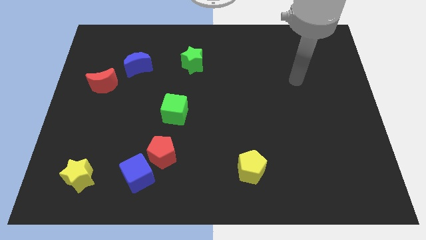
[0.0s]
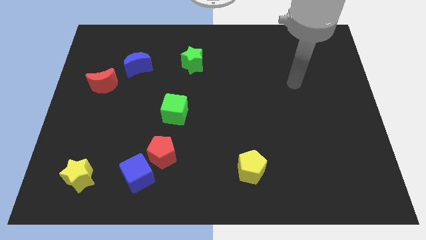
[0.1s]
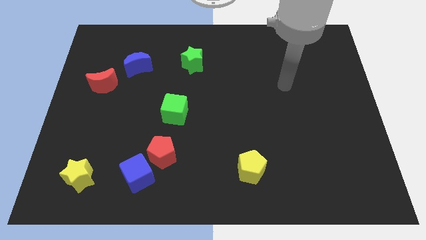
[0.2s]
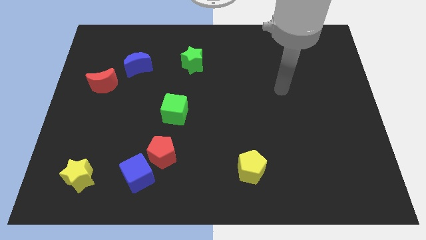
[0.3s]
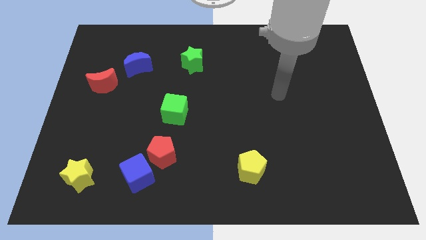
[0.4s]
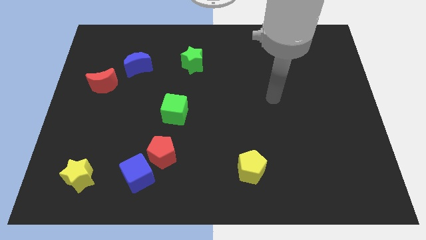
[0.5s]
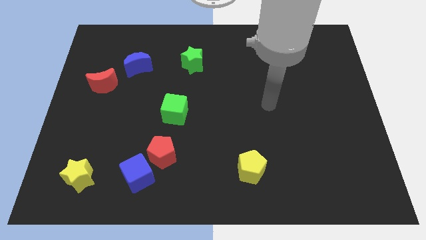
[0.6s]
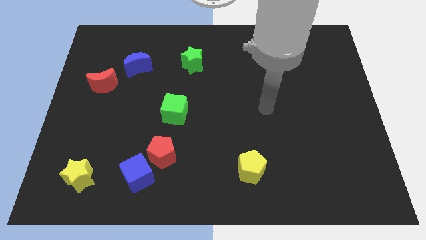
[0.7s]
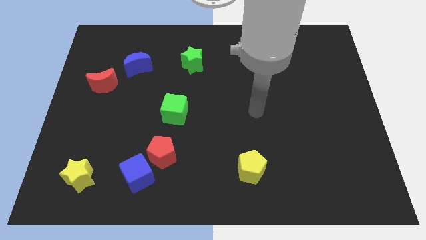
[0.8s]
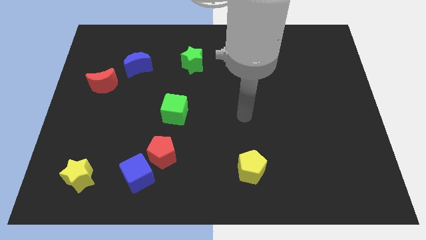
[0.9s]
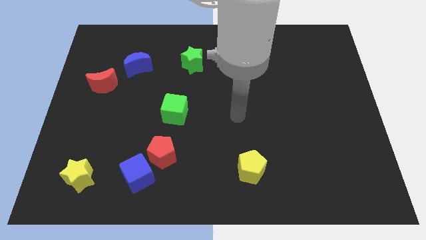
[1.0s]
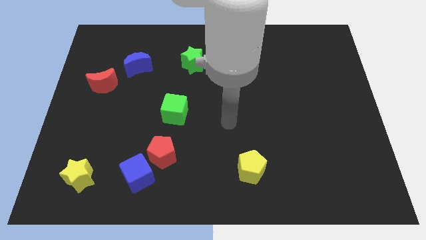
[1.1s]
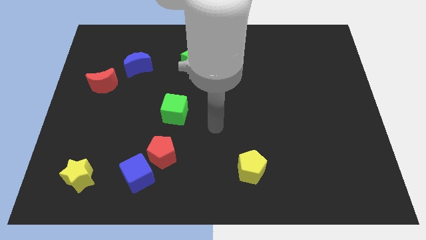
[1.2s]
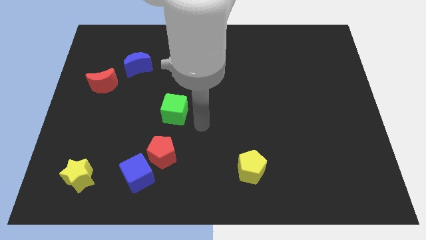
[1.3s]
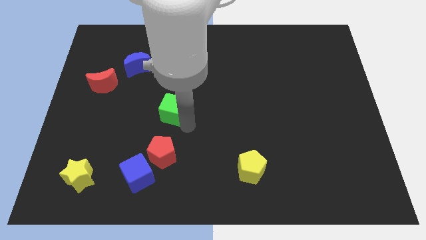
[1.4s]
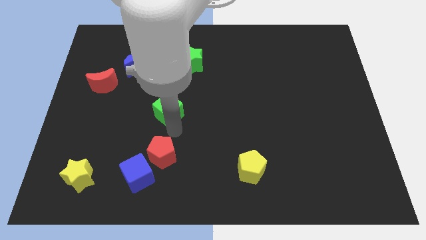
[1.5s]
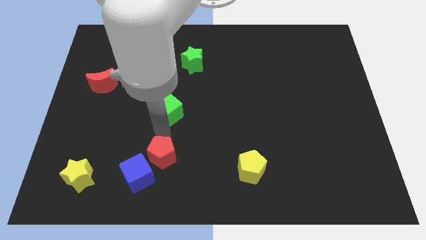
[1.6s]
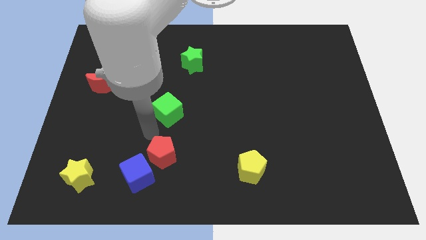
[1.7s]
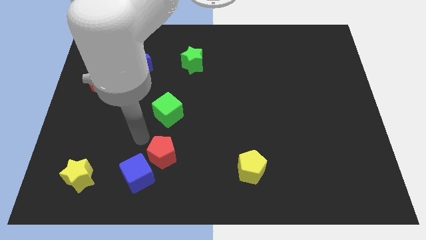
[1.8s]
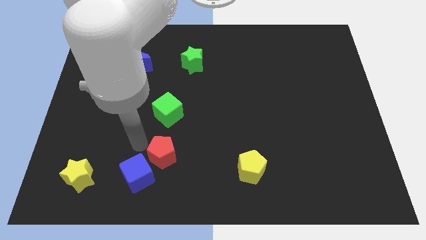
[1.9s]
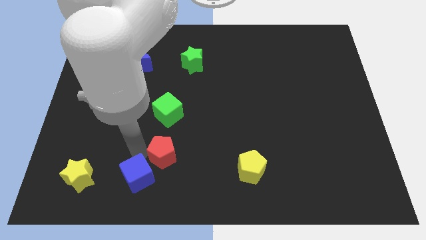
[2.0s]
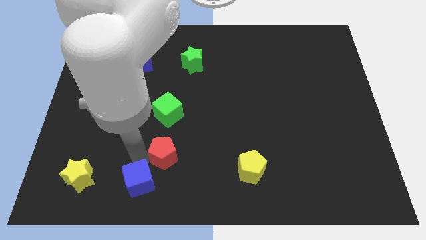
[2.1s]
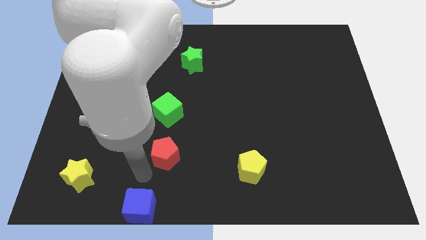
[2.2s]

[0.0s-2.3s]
pull the red pentagon apart from the blue cube

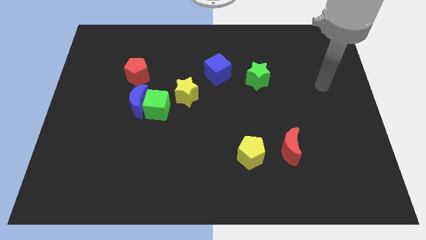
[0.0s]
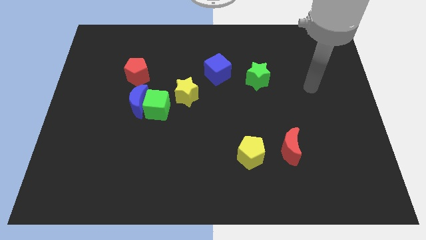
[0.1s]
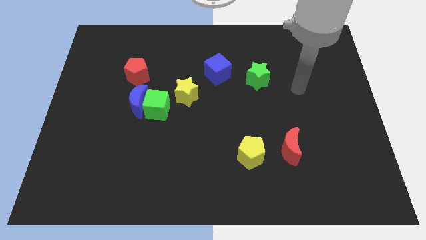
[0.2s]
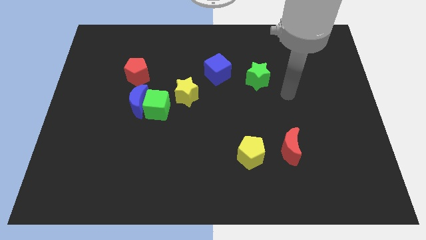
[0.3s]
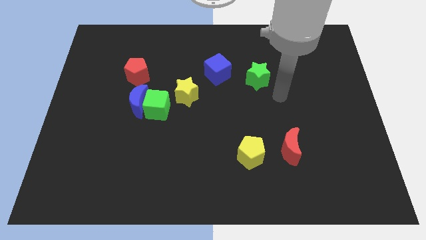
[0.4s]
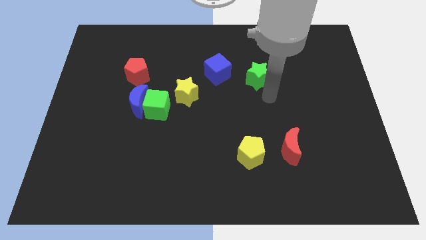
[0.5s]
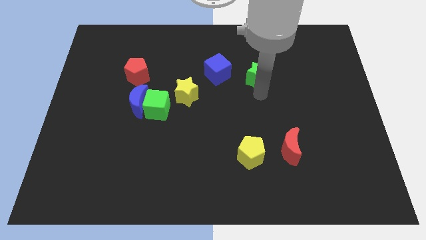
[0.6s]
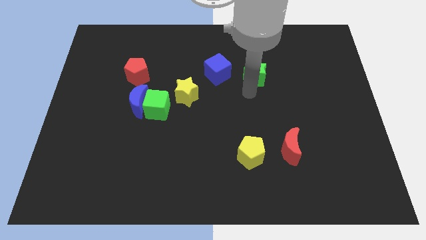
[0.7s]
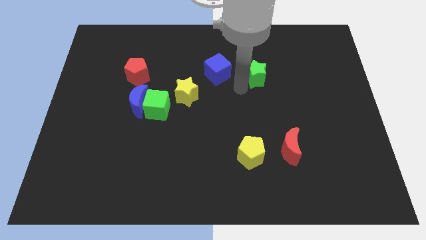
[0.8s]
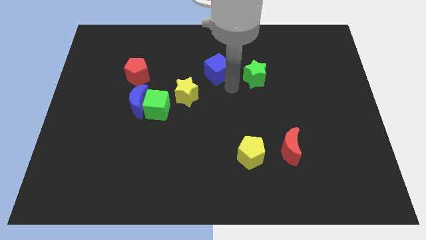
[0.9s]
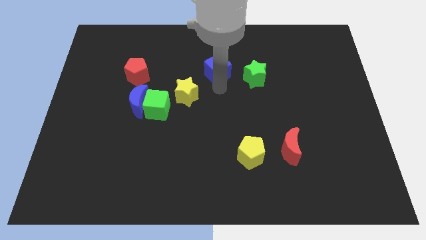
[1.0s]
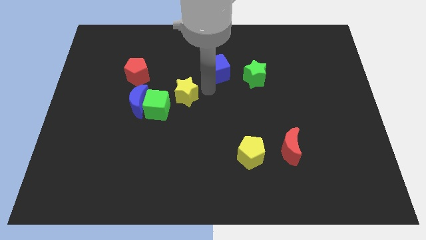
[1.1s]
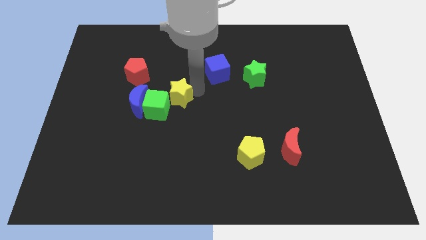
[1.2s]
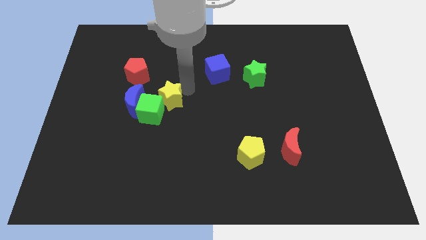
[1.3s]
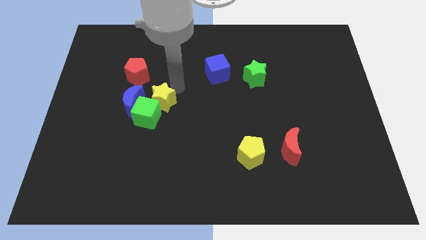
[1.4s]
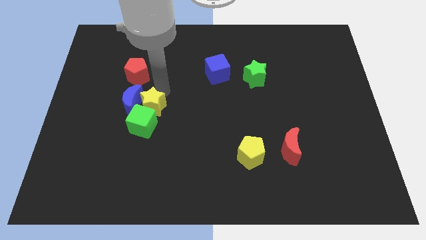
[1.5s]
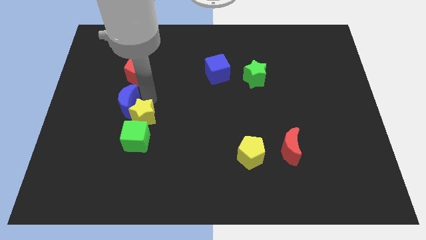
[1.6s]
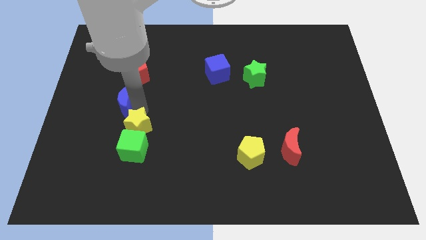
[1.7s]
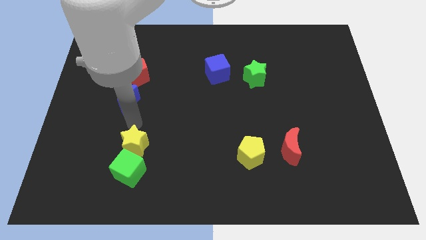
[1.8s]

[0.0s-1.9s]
move the green cube away from the blue moon and yellow star

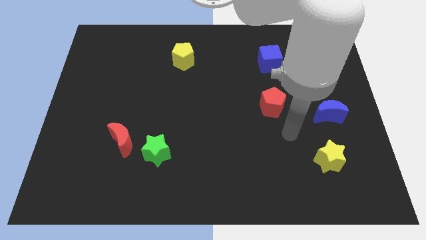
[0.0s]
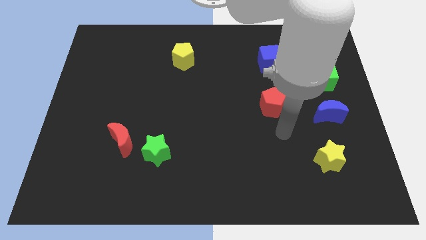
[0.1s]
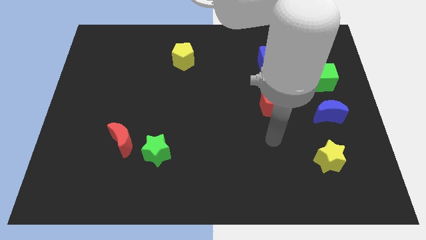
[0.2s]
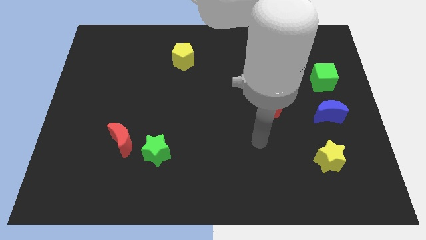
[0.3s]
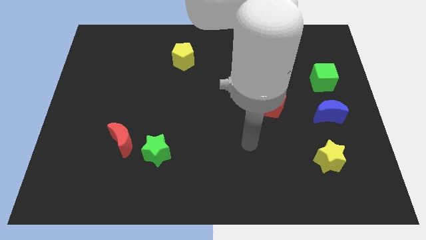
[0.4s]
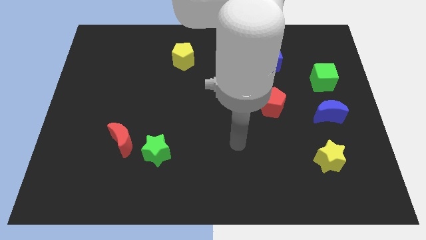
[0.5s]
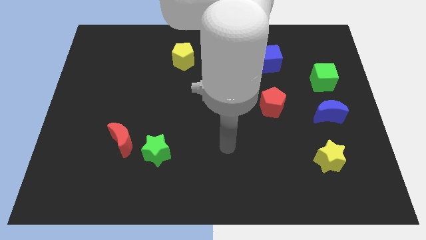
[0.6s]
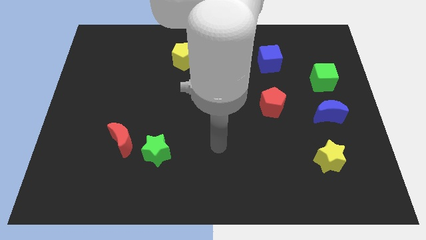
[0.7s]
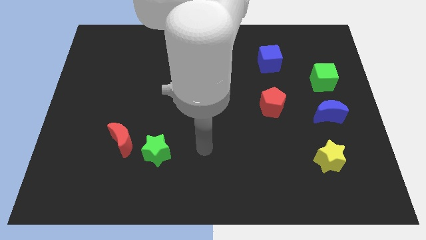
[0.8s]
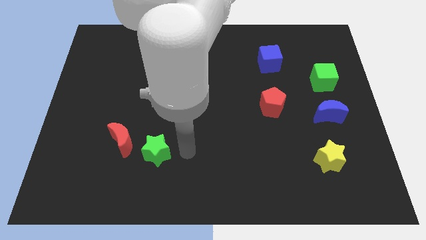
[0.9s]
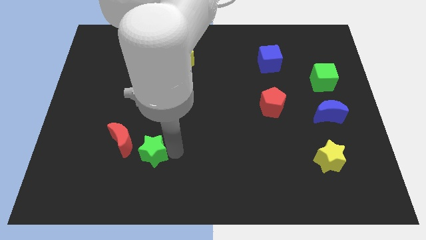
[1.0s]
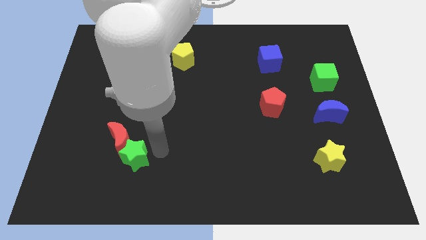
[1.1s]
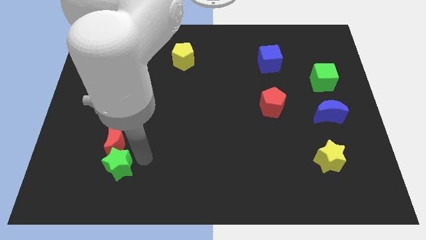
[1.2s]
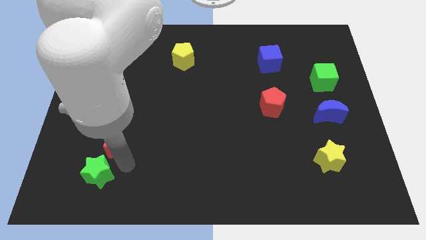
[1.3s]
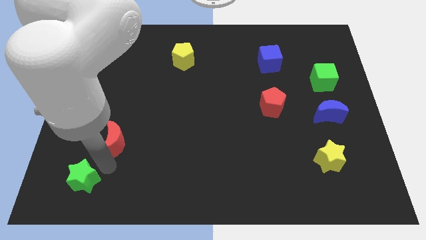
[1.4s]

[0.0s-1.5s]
separate the red moon from the green star

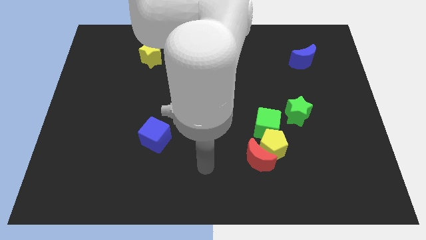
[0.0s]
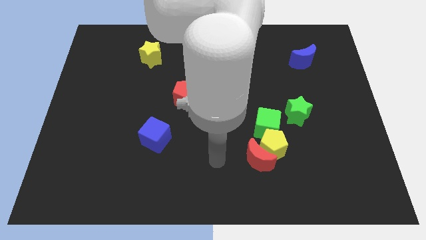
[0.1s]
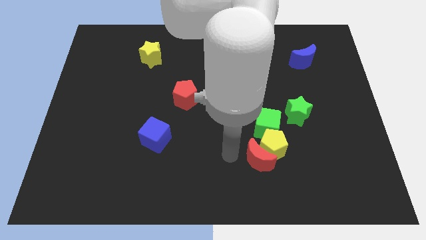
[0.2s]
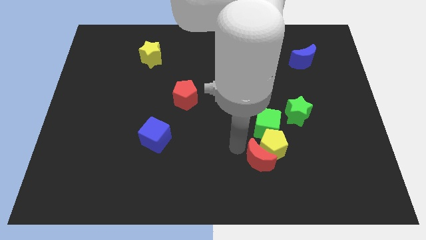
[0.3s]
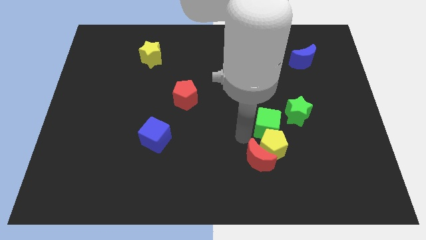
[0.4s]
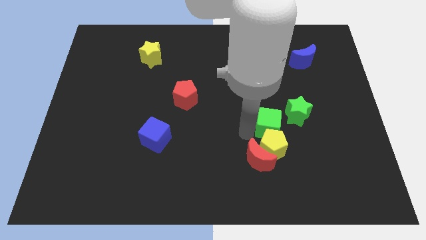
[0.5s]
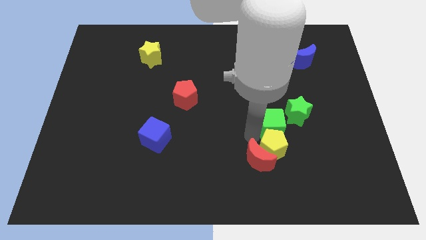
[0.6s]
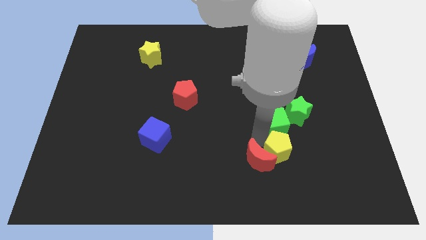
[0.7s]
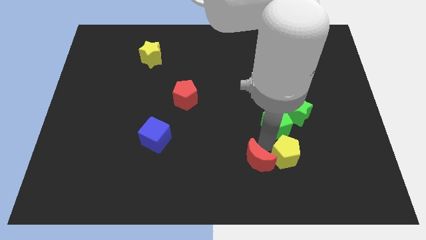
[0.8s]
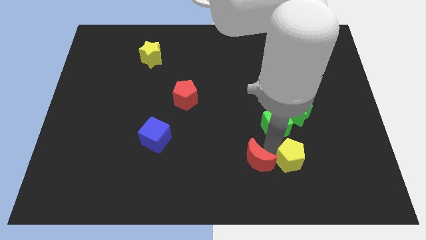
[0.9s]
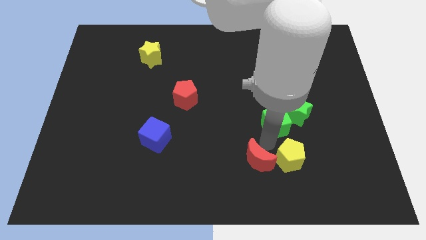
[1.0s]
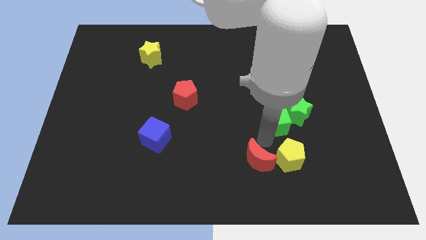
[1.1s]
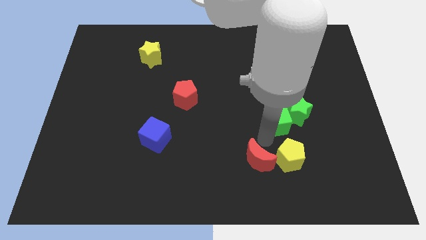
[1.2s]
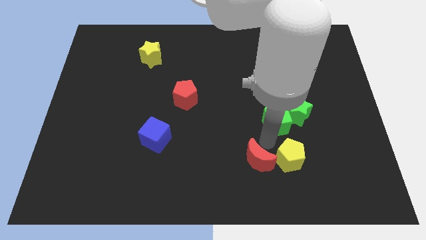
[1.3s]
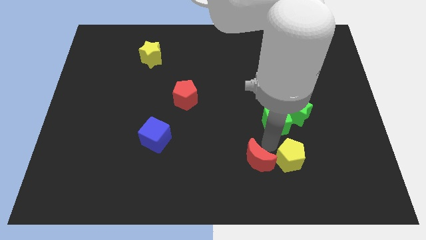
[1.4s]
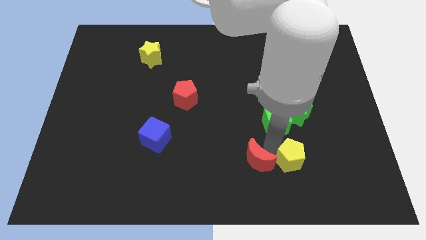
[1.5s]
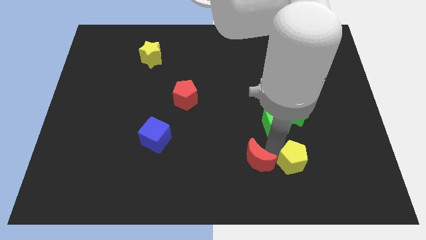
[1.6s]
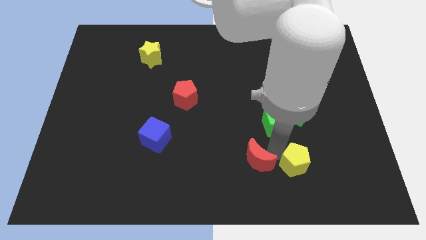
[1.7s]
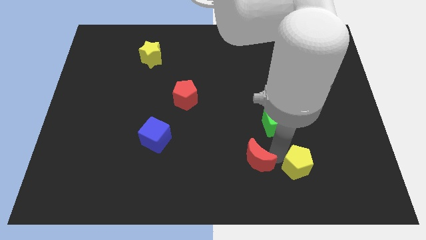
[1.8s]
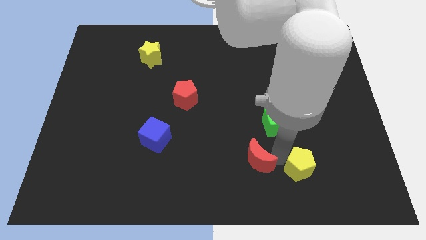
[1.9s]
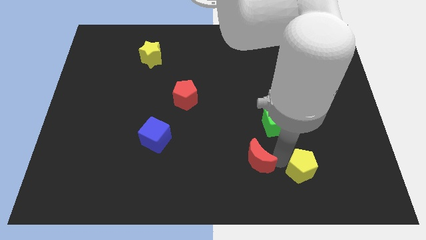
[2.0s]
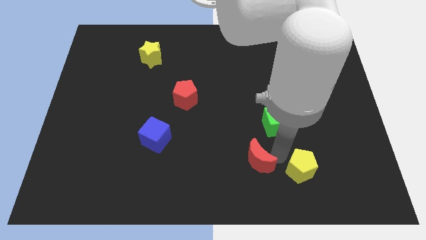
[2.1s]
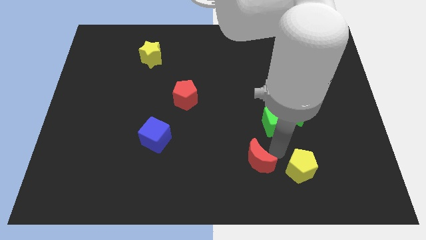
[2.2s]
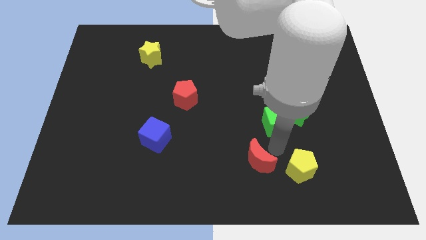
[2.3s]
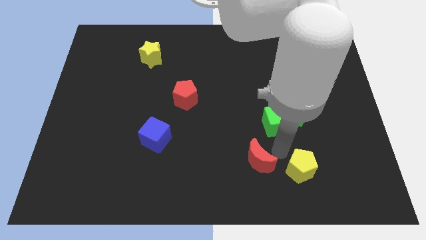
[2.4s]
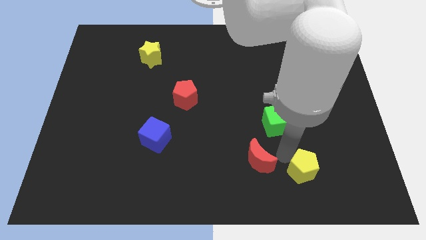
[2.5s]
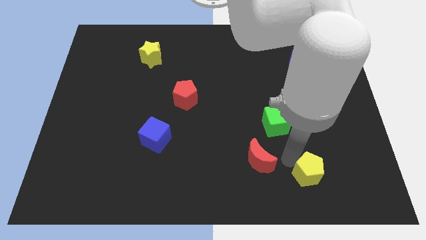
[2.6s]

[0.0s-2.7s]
pull the yellow pentagon apart from the red moon and green cube

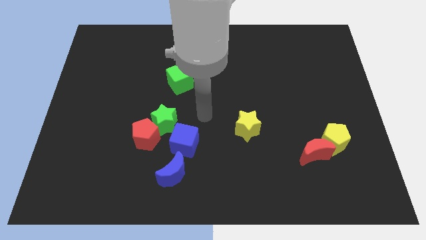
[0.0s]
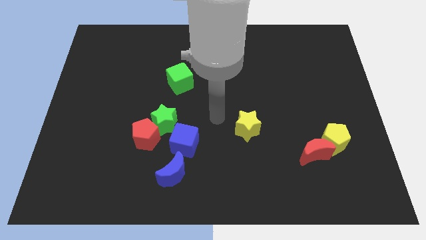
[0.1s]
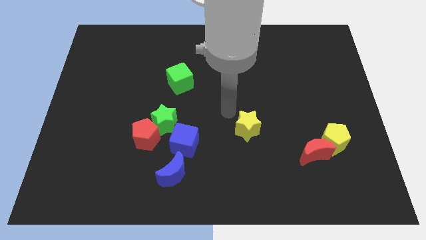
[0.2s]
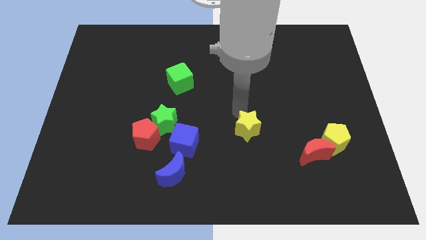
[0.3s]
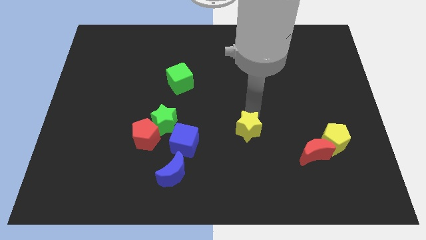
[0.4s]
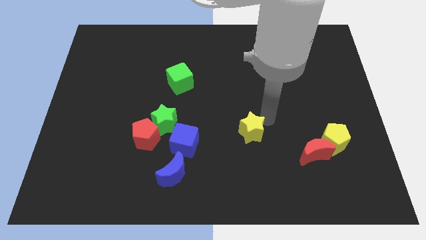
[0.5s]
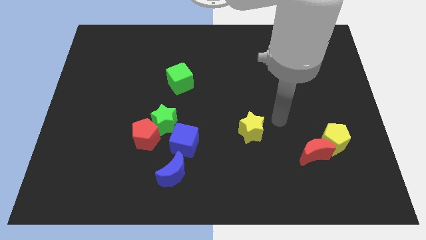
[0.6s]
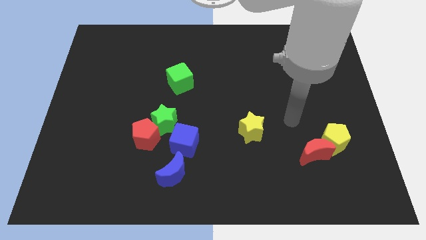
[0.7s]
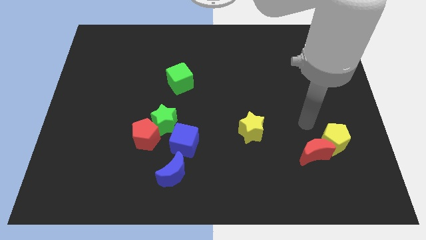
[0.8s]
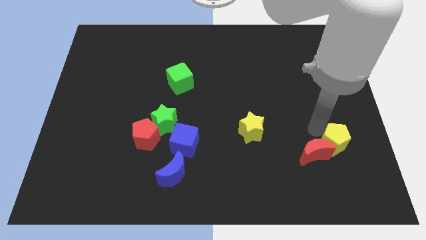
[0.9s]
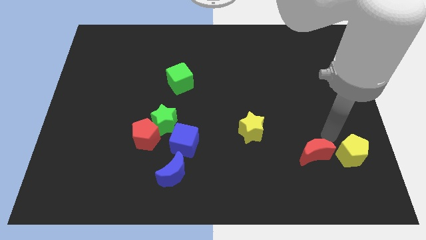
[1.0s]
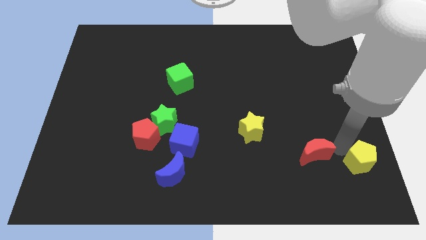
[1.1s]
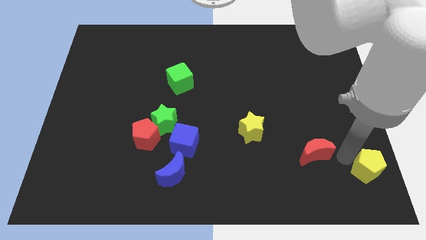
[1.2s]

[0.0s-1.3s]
pull the red moon apart from the yellow pentagon
